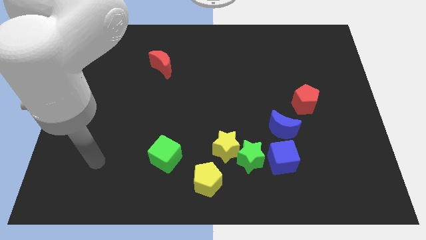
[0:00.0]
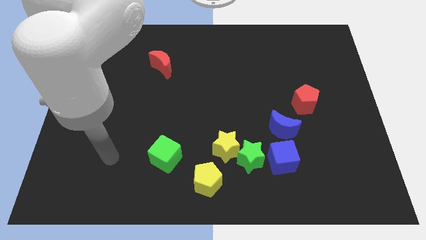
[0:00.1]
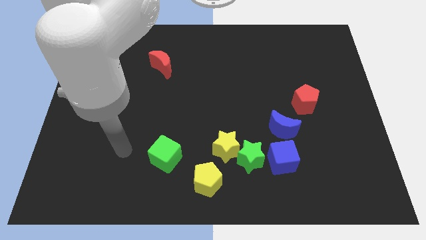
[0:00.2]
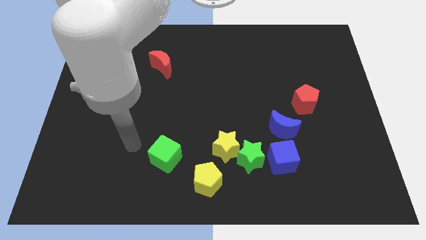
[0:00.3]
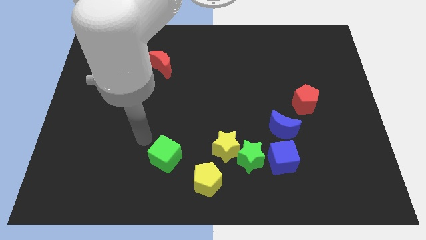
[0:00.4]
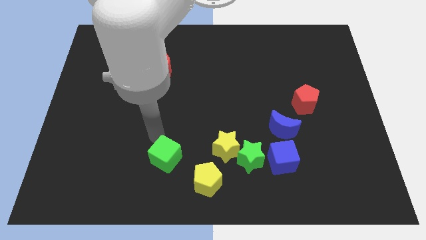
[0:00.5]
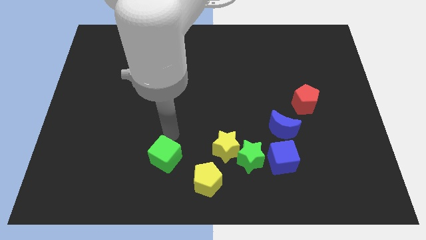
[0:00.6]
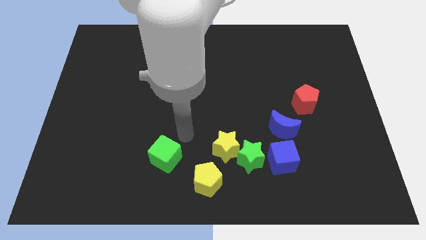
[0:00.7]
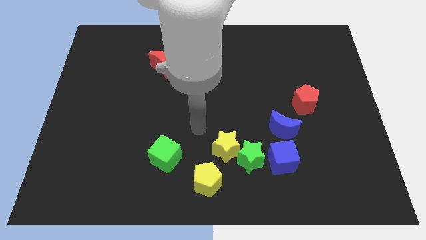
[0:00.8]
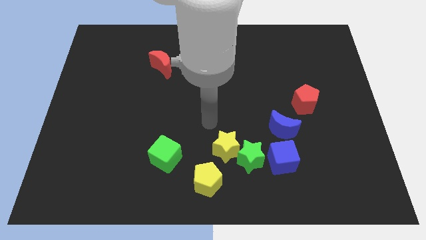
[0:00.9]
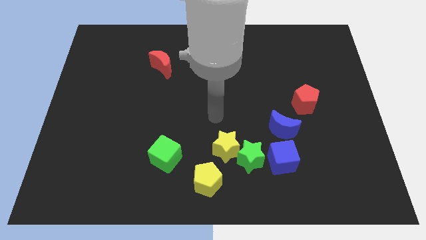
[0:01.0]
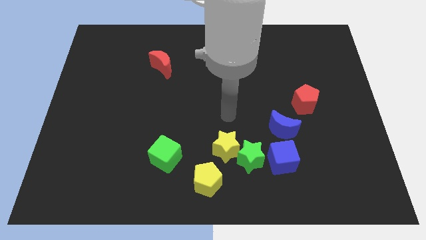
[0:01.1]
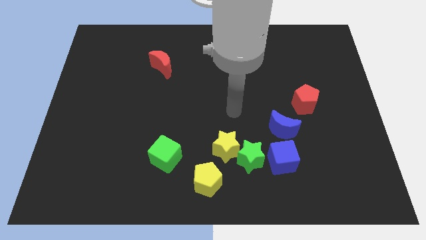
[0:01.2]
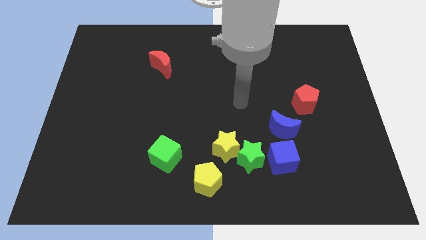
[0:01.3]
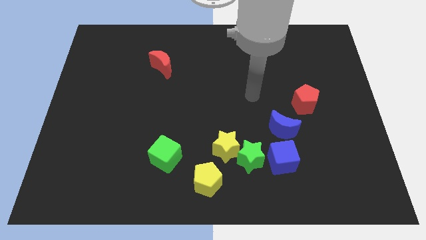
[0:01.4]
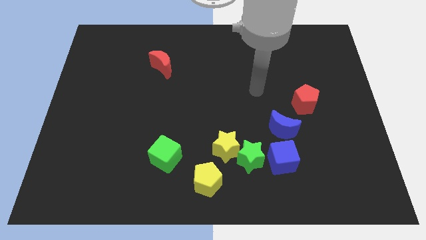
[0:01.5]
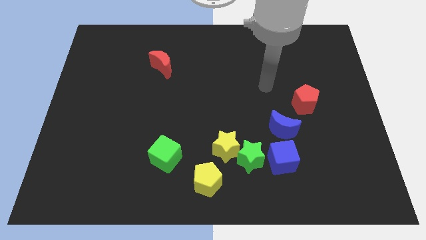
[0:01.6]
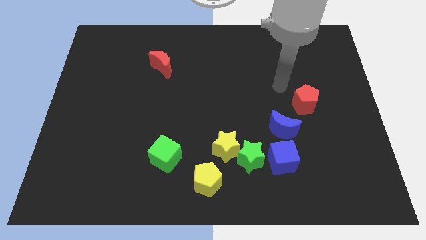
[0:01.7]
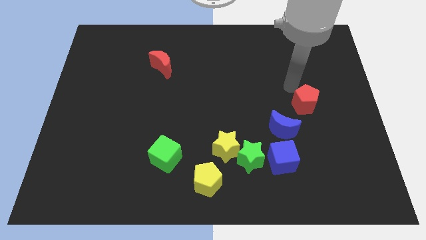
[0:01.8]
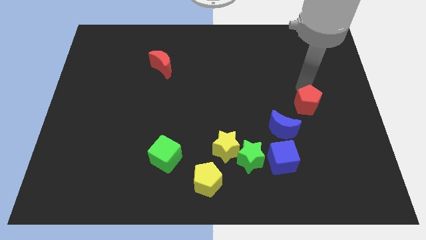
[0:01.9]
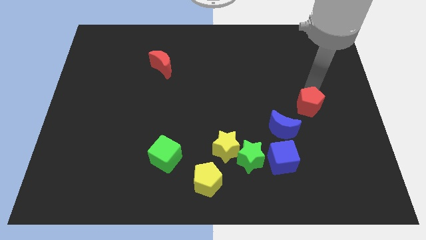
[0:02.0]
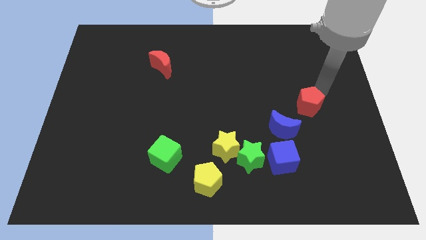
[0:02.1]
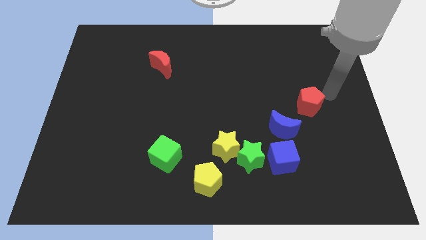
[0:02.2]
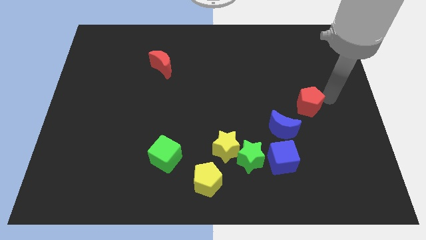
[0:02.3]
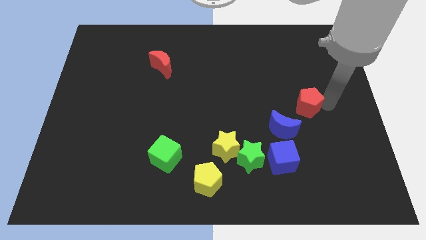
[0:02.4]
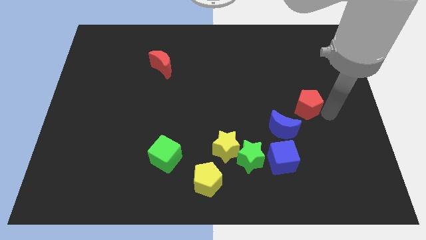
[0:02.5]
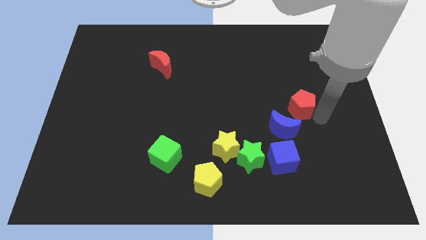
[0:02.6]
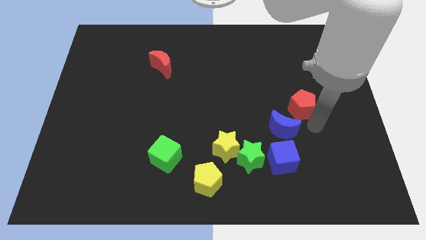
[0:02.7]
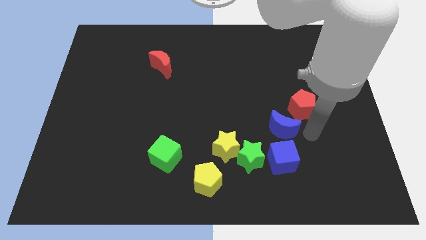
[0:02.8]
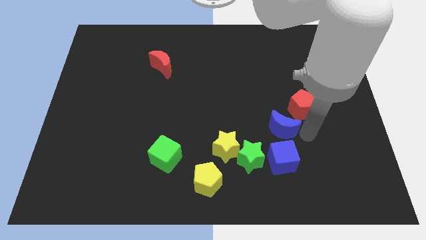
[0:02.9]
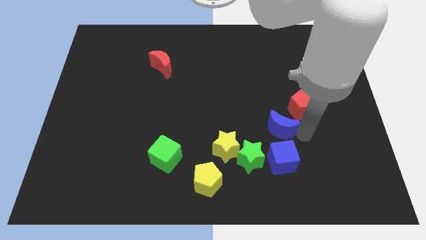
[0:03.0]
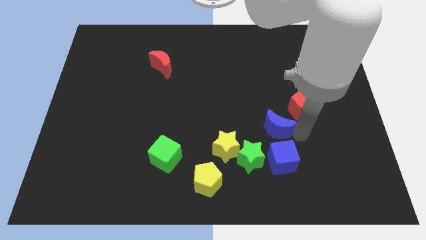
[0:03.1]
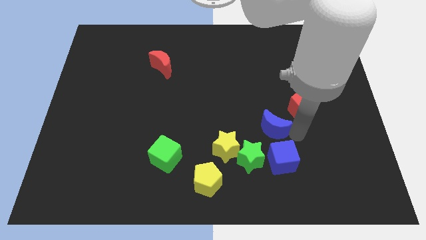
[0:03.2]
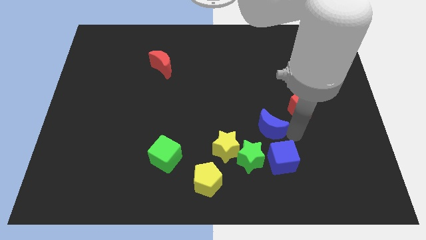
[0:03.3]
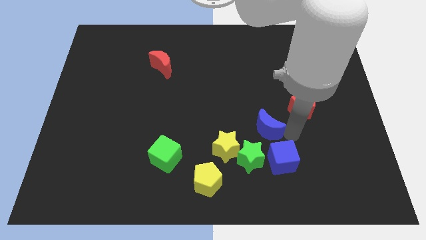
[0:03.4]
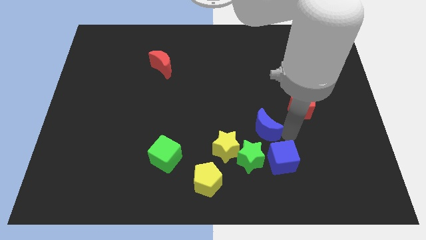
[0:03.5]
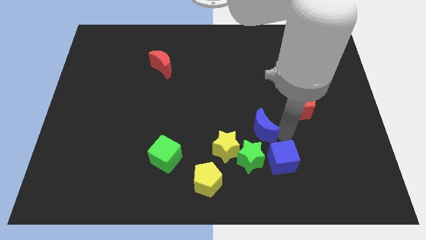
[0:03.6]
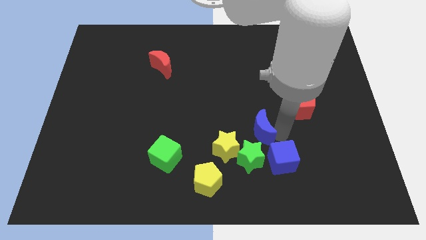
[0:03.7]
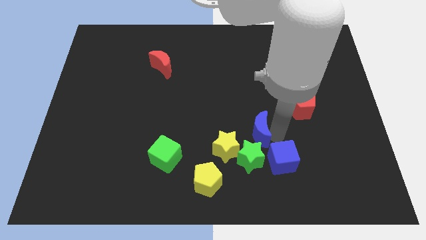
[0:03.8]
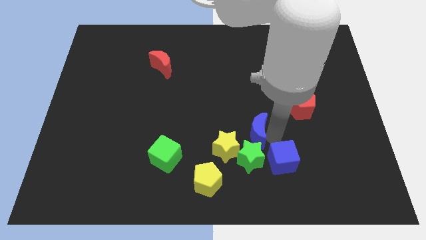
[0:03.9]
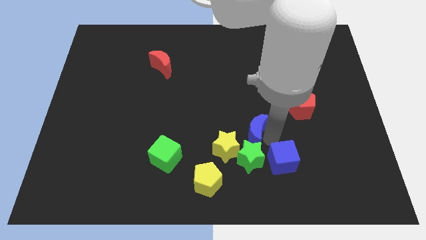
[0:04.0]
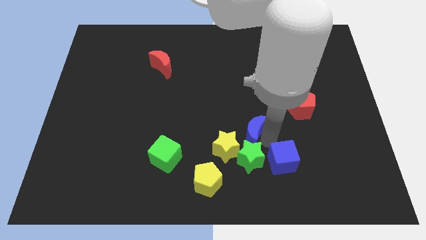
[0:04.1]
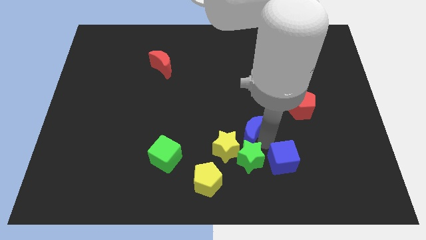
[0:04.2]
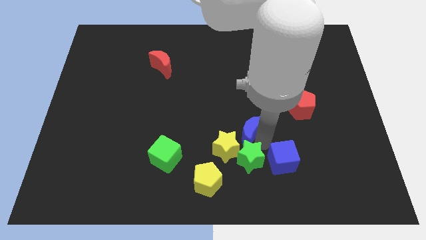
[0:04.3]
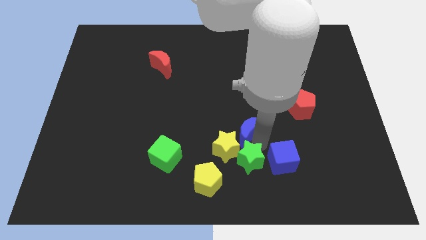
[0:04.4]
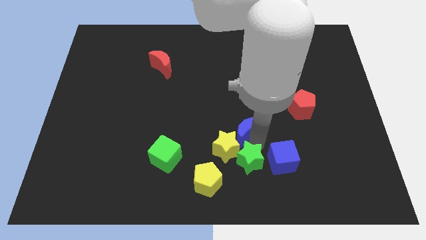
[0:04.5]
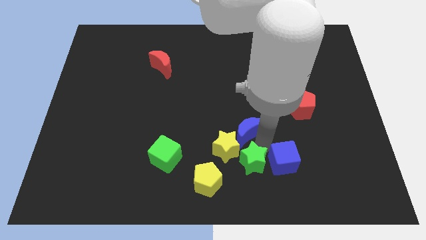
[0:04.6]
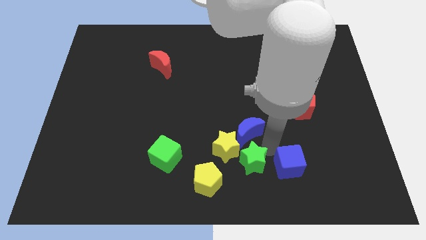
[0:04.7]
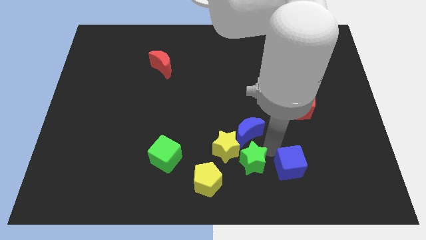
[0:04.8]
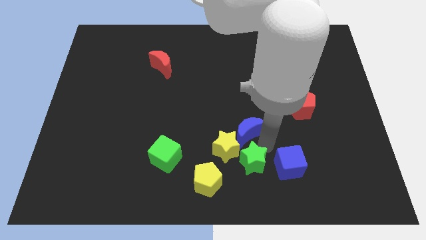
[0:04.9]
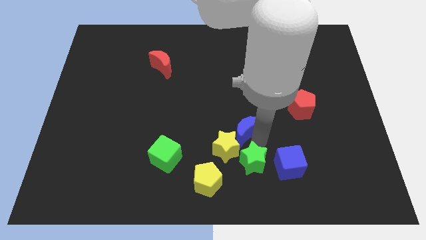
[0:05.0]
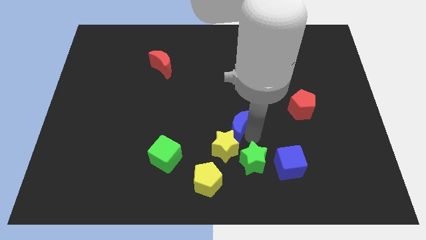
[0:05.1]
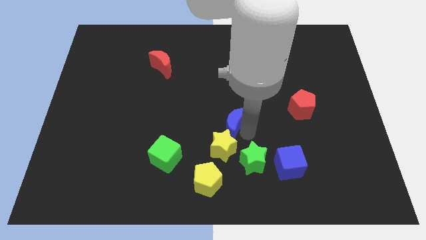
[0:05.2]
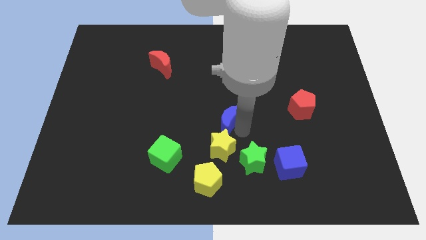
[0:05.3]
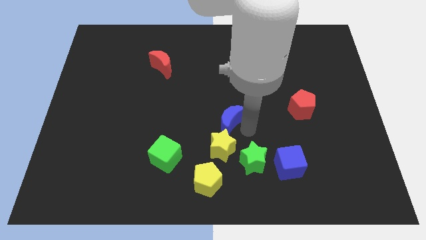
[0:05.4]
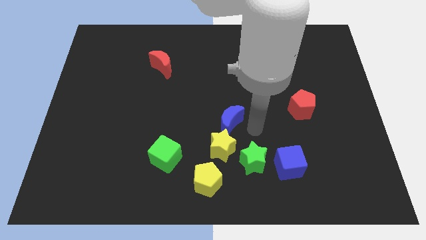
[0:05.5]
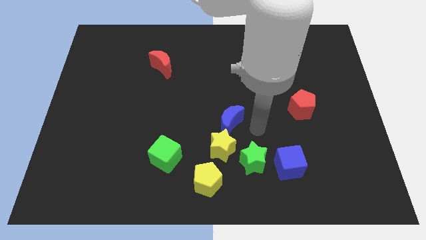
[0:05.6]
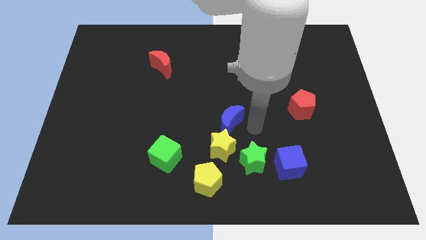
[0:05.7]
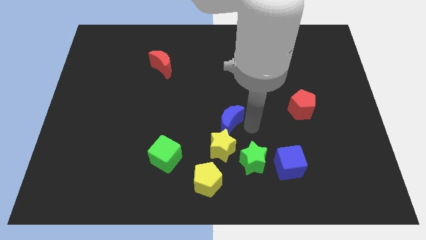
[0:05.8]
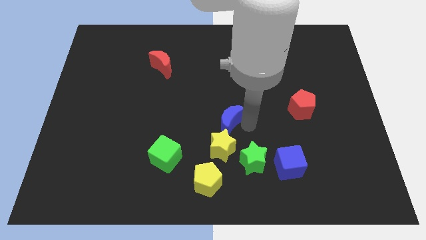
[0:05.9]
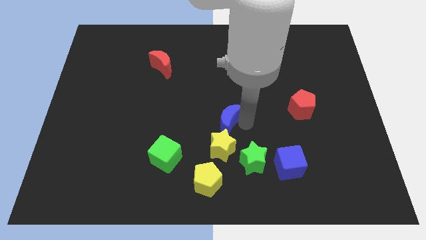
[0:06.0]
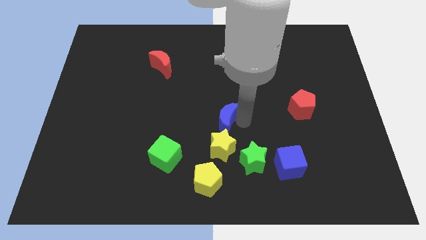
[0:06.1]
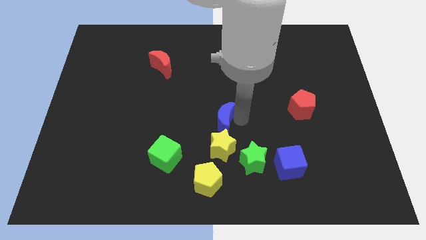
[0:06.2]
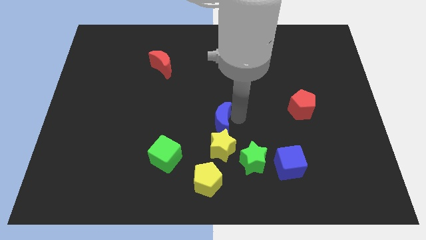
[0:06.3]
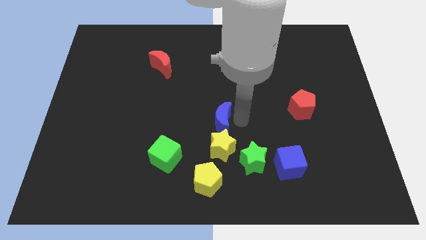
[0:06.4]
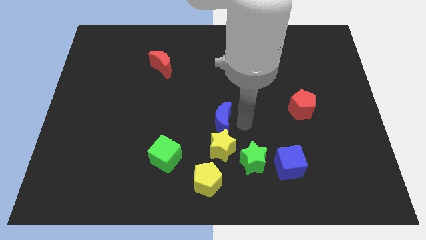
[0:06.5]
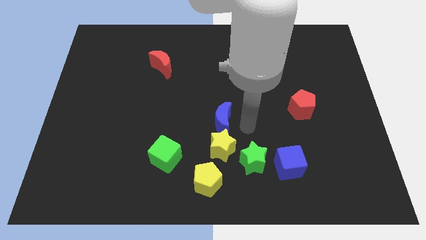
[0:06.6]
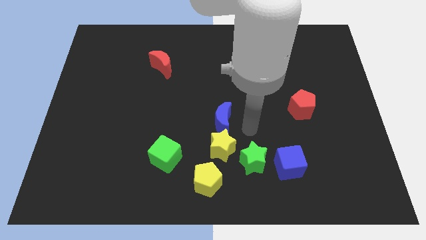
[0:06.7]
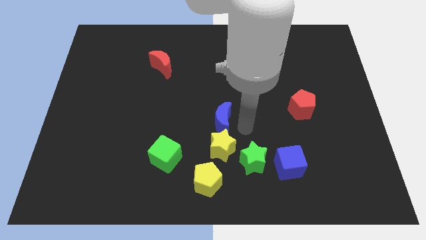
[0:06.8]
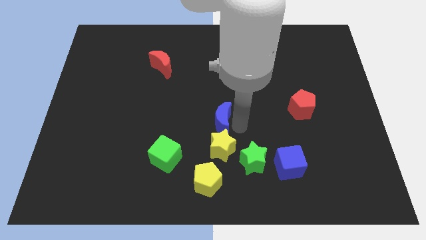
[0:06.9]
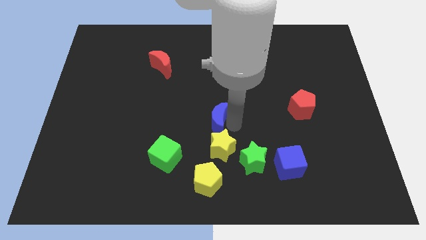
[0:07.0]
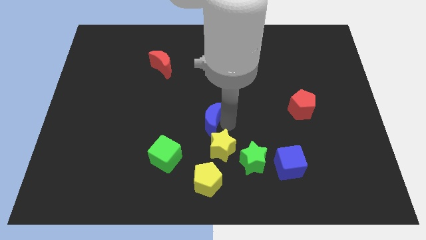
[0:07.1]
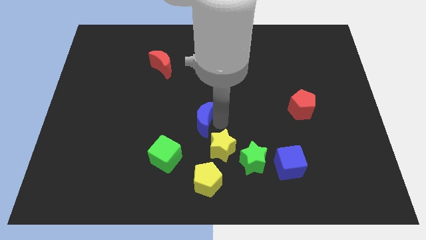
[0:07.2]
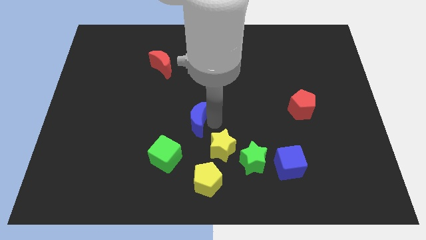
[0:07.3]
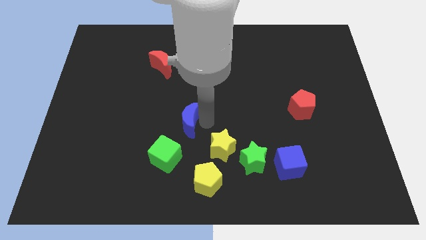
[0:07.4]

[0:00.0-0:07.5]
slide the blue moon to the top side of the green cube
